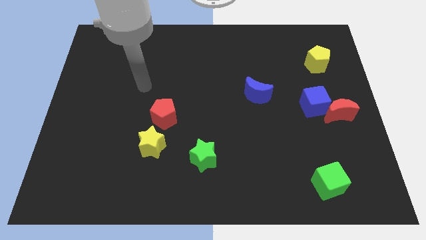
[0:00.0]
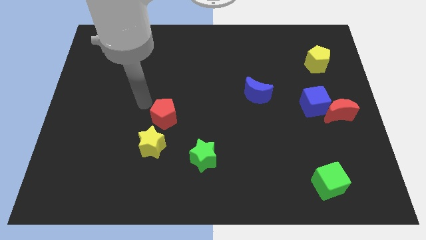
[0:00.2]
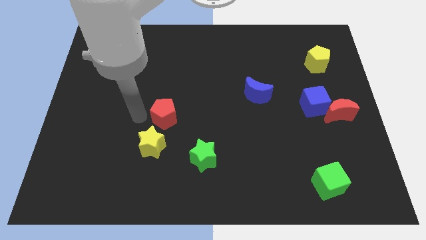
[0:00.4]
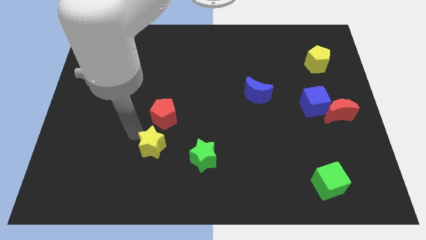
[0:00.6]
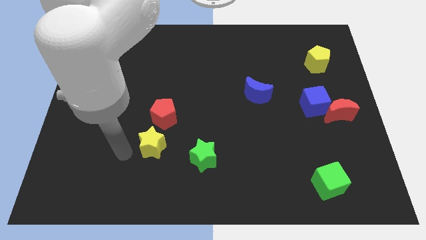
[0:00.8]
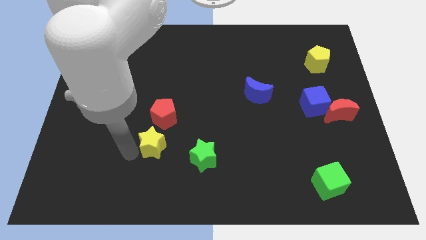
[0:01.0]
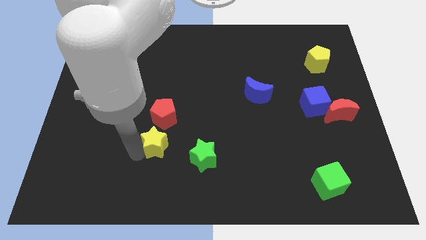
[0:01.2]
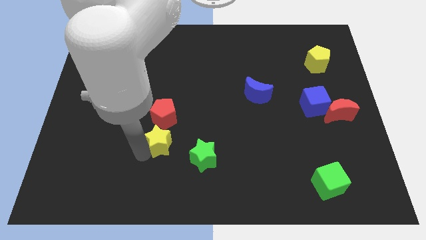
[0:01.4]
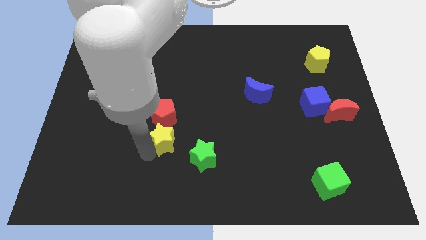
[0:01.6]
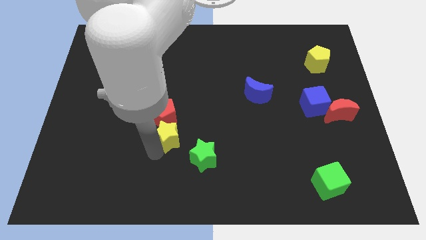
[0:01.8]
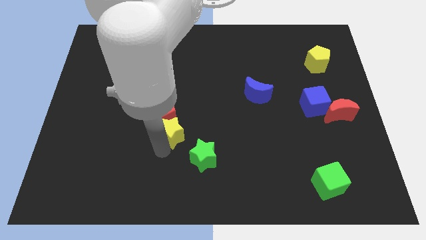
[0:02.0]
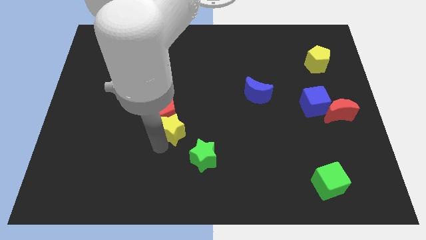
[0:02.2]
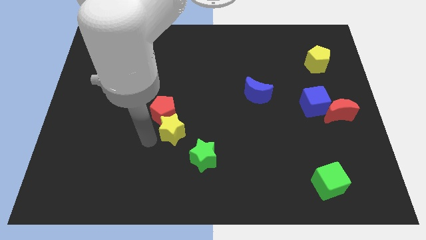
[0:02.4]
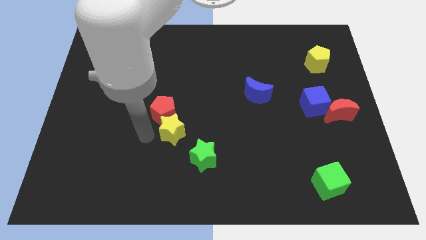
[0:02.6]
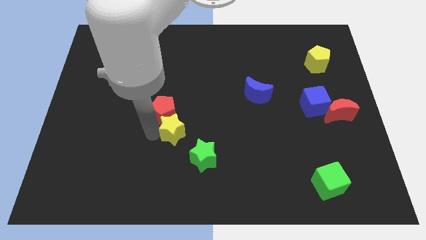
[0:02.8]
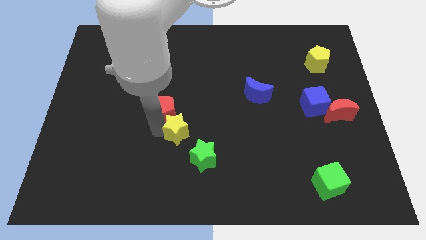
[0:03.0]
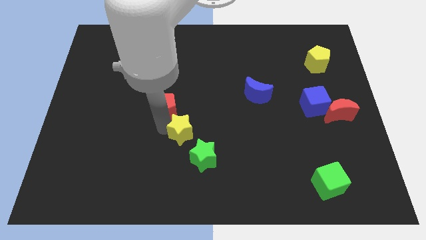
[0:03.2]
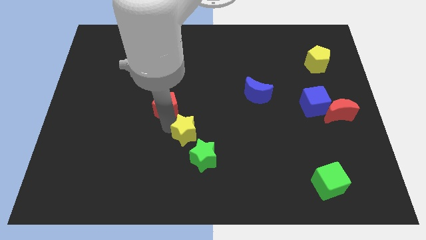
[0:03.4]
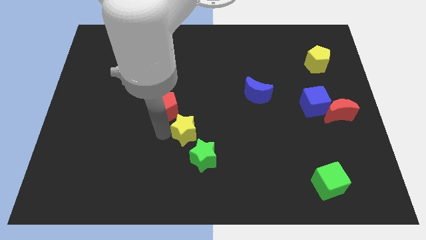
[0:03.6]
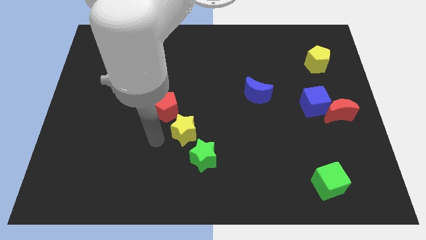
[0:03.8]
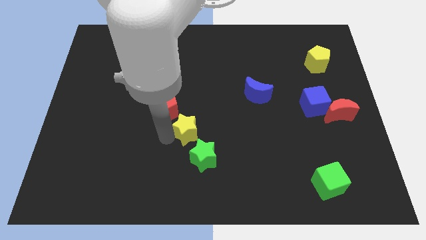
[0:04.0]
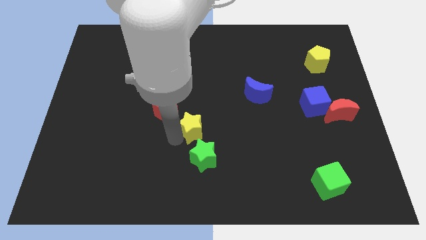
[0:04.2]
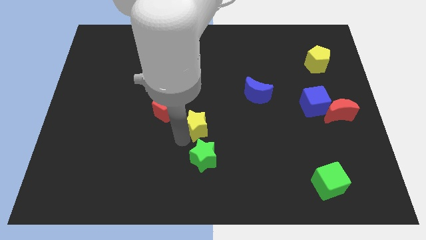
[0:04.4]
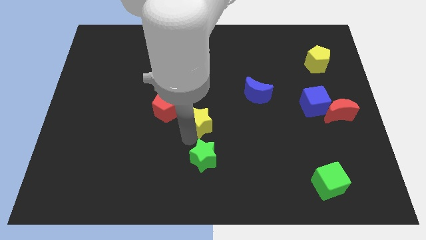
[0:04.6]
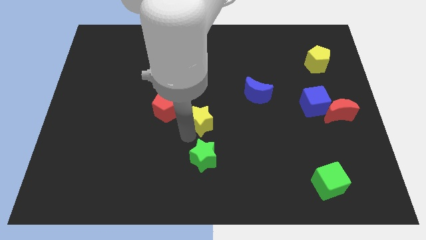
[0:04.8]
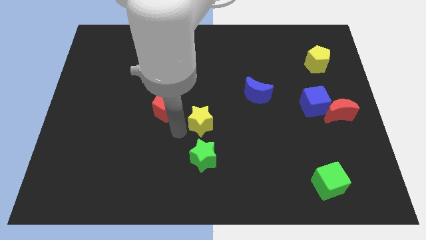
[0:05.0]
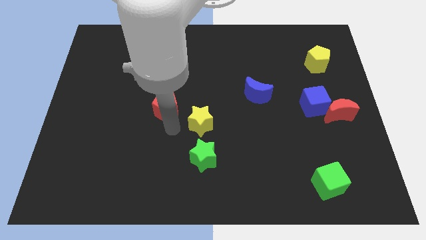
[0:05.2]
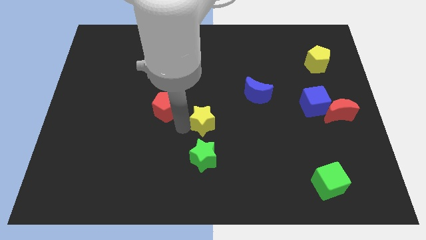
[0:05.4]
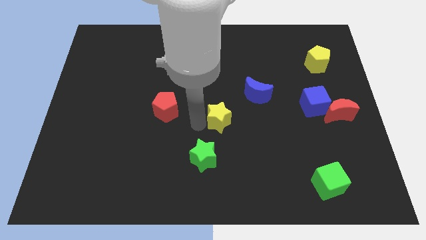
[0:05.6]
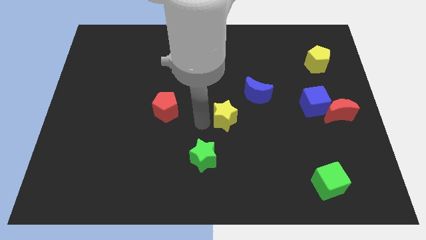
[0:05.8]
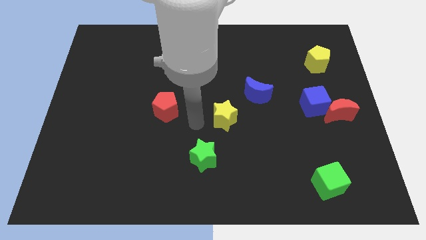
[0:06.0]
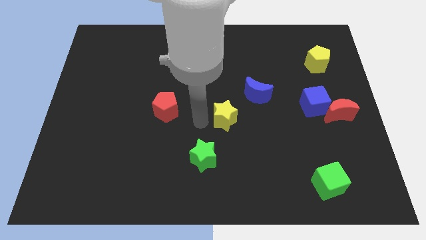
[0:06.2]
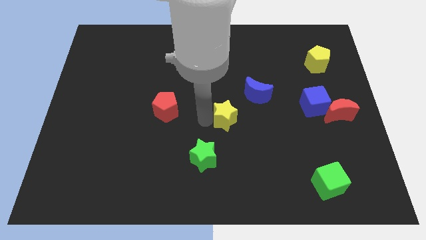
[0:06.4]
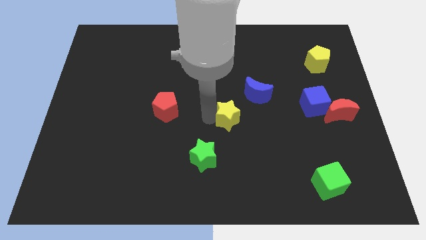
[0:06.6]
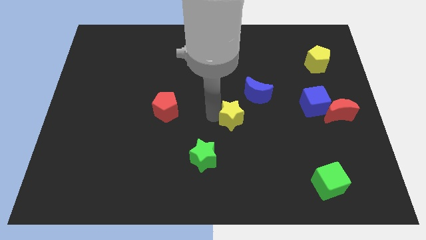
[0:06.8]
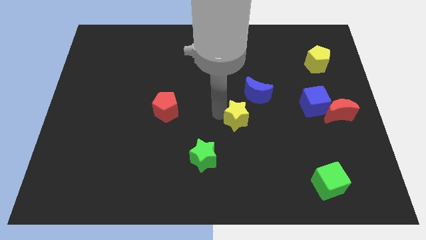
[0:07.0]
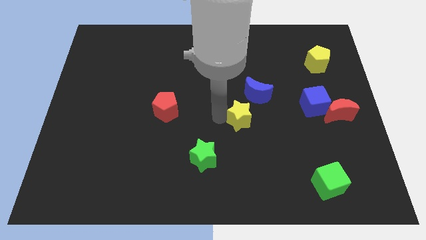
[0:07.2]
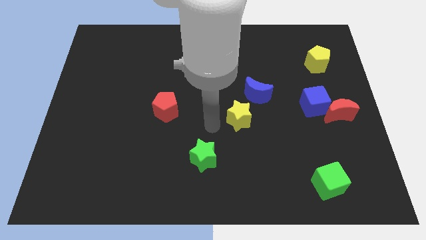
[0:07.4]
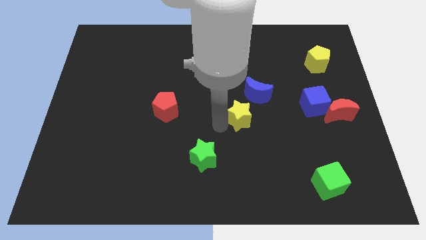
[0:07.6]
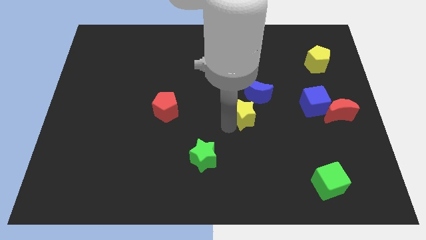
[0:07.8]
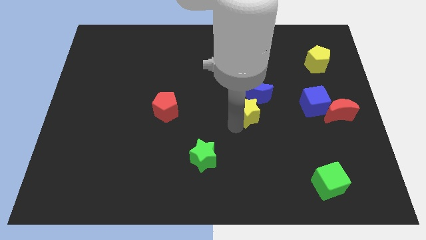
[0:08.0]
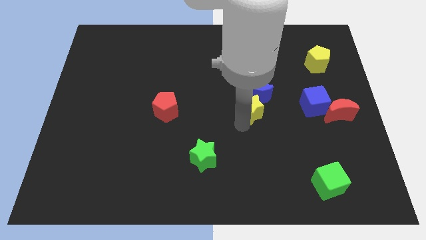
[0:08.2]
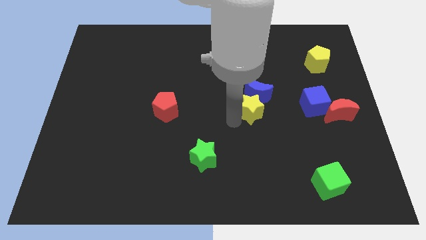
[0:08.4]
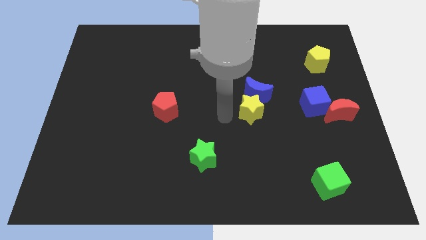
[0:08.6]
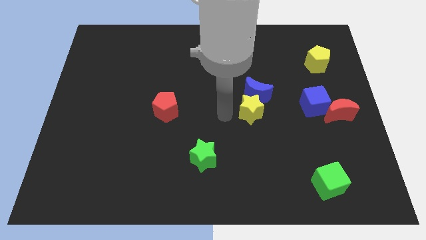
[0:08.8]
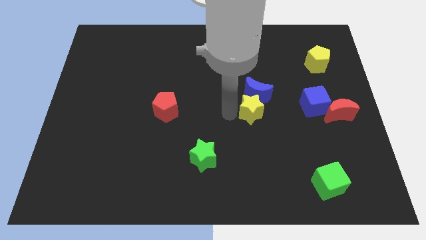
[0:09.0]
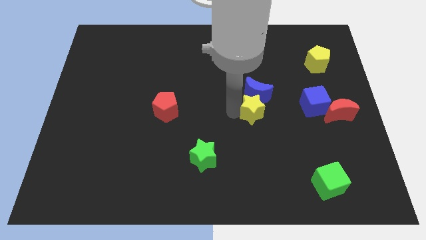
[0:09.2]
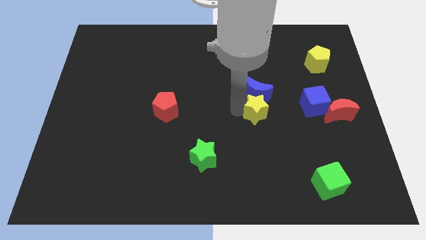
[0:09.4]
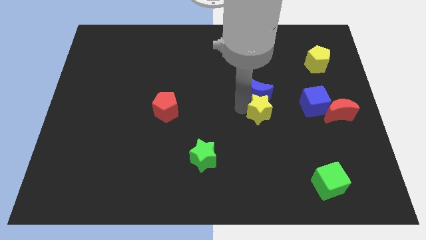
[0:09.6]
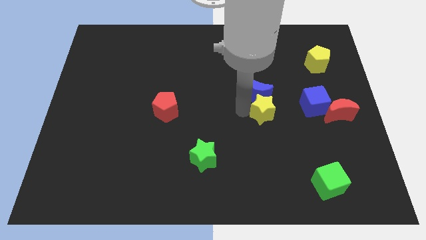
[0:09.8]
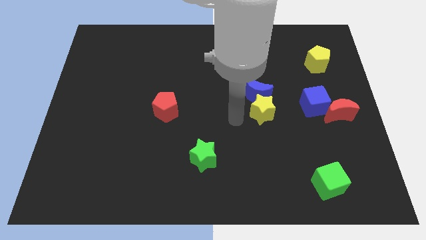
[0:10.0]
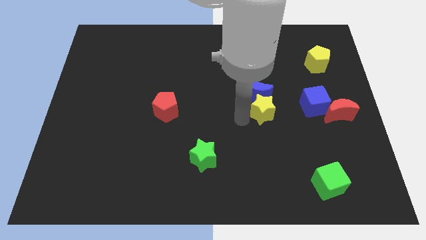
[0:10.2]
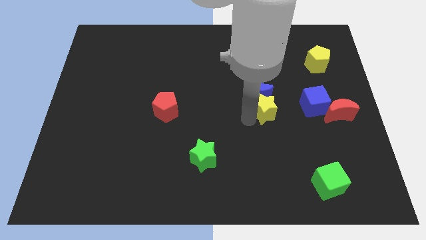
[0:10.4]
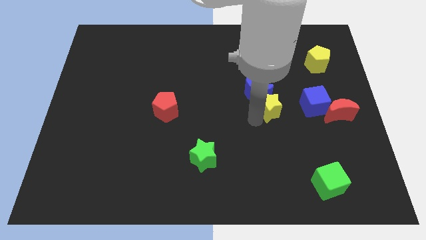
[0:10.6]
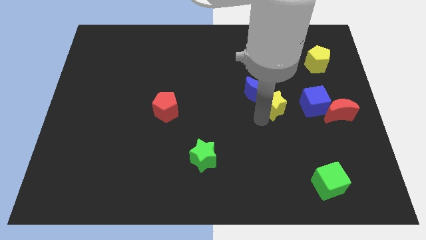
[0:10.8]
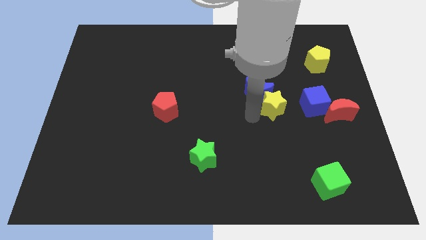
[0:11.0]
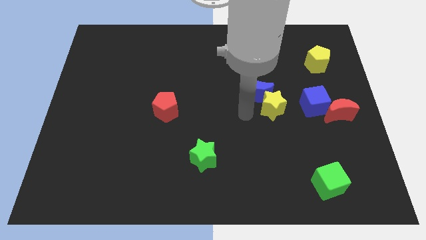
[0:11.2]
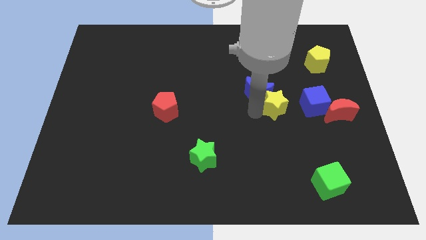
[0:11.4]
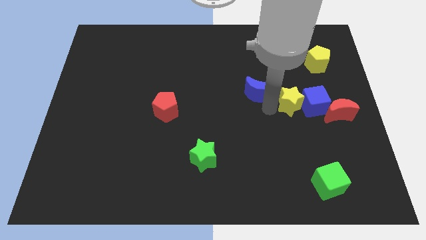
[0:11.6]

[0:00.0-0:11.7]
move the yellow star to the blue cube

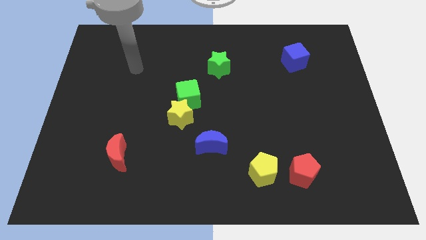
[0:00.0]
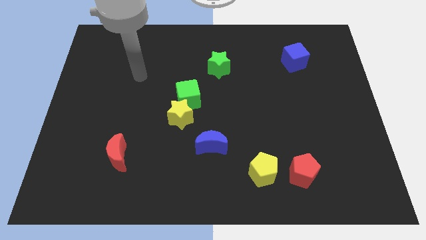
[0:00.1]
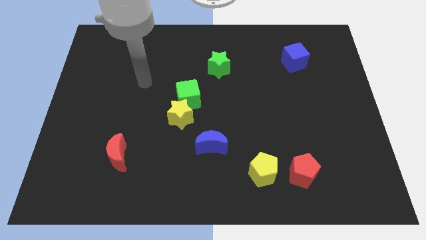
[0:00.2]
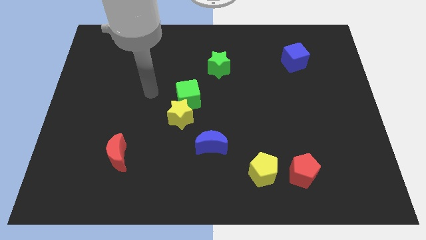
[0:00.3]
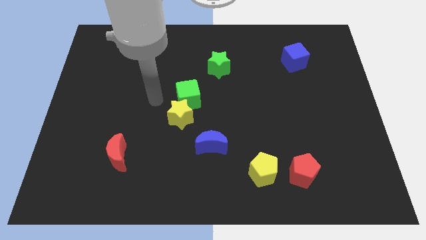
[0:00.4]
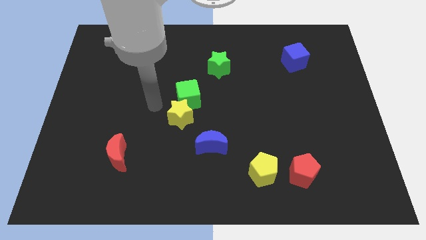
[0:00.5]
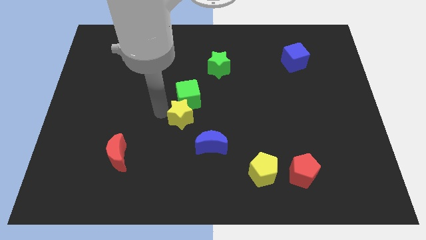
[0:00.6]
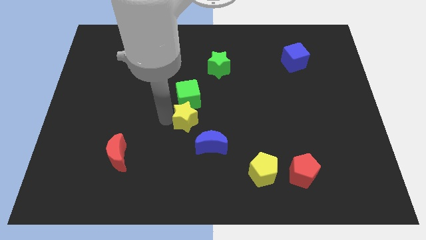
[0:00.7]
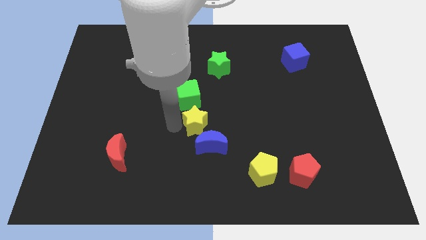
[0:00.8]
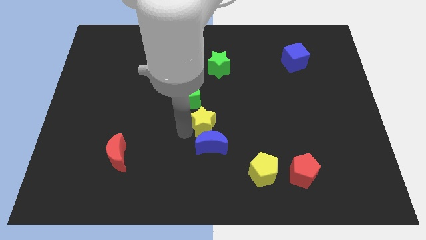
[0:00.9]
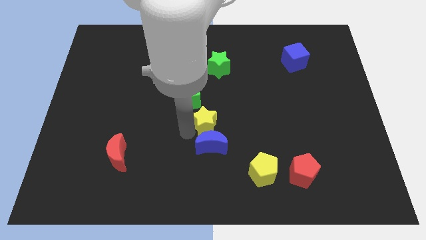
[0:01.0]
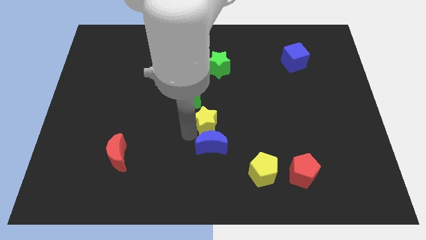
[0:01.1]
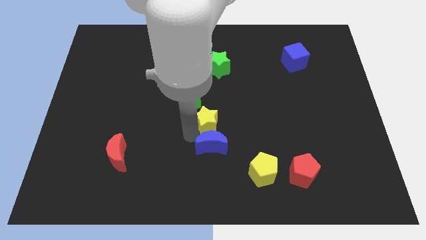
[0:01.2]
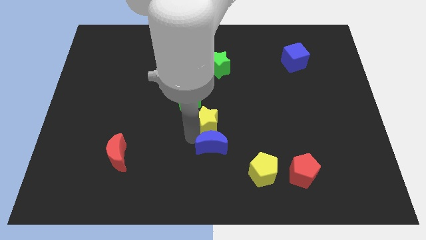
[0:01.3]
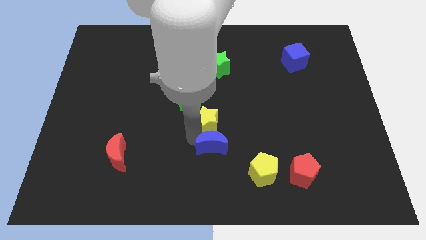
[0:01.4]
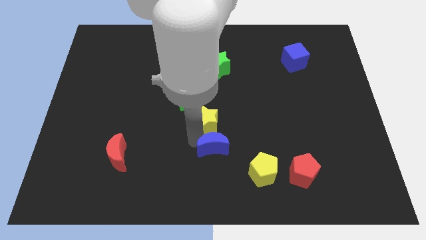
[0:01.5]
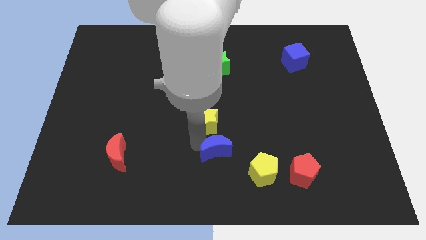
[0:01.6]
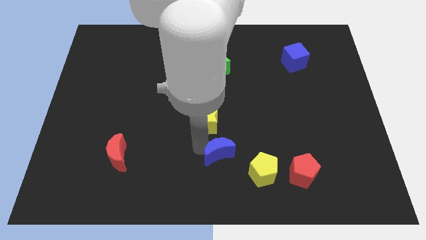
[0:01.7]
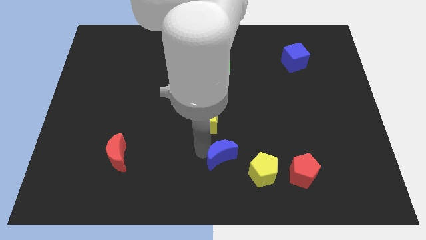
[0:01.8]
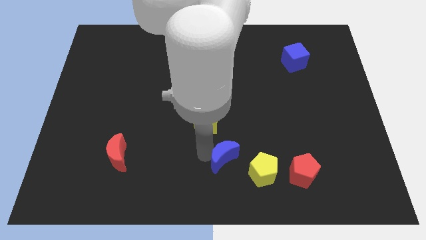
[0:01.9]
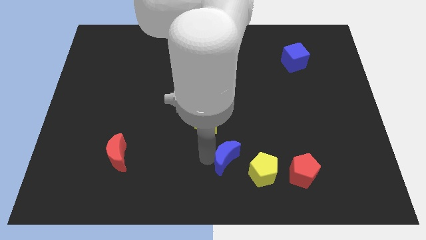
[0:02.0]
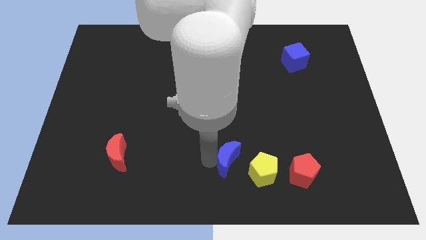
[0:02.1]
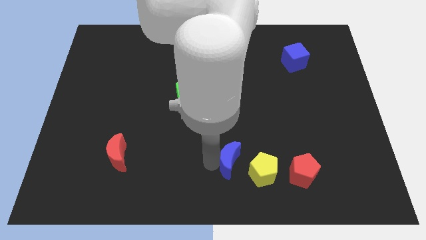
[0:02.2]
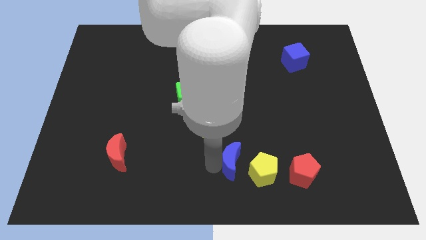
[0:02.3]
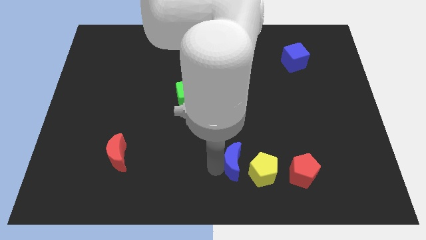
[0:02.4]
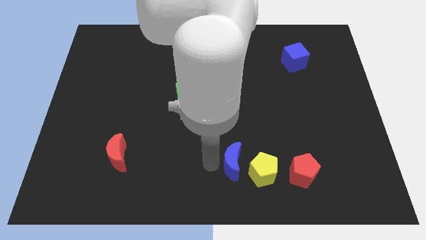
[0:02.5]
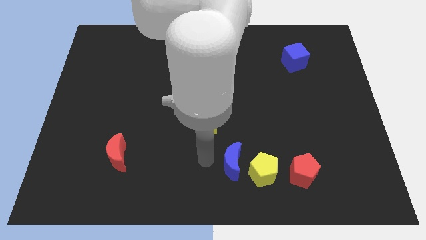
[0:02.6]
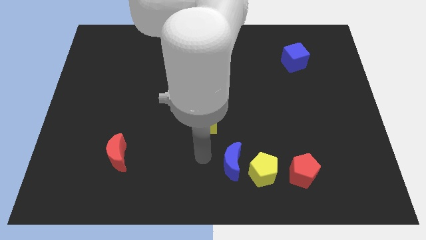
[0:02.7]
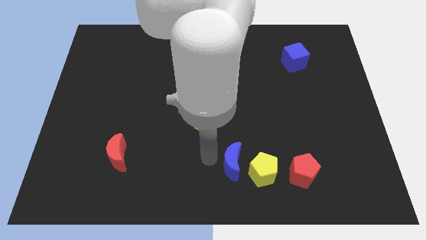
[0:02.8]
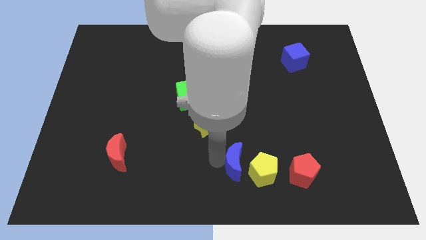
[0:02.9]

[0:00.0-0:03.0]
slide the blue moon towards the yellow pentagon
